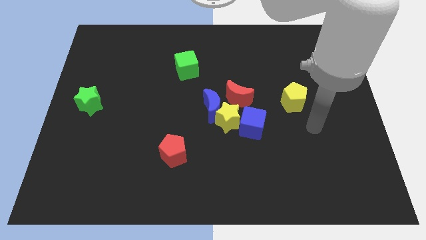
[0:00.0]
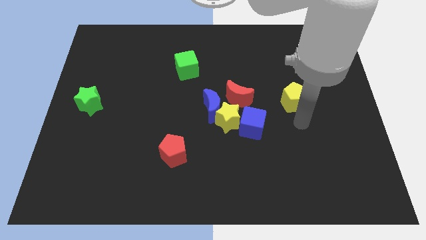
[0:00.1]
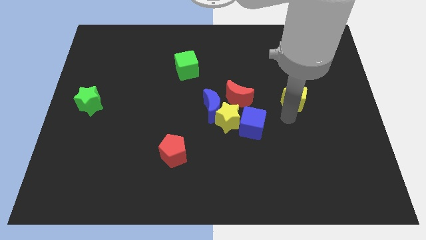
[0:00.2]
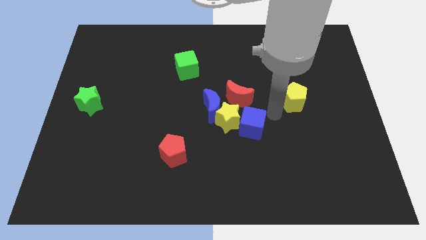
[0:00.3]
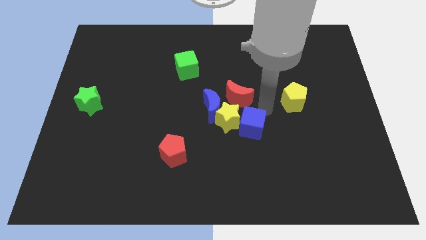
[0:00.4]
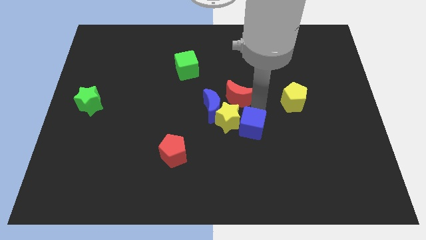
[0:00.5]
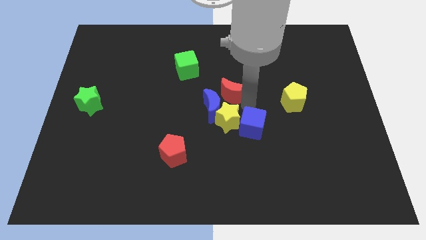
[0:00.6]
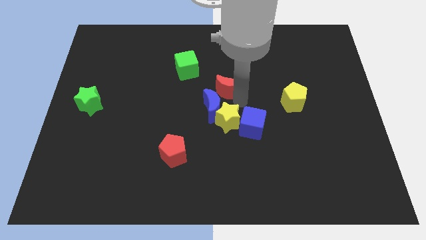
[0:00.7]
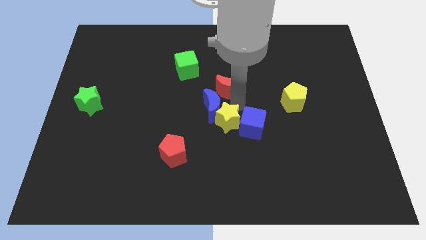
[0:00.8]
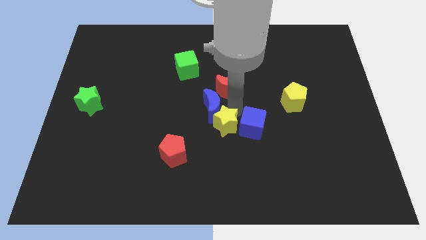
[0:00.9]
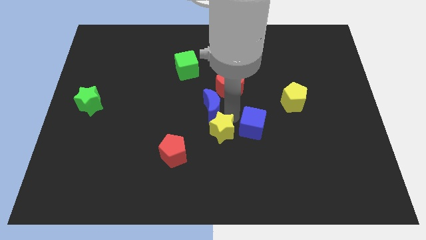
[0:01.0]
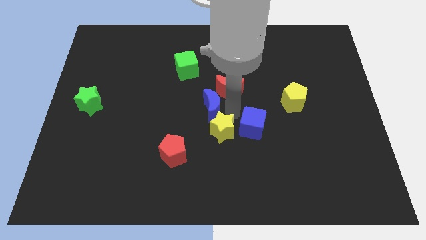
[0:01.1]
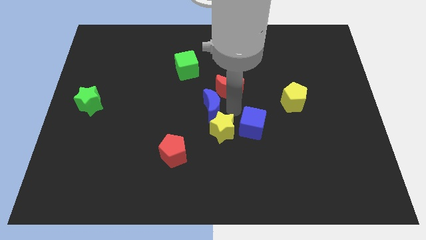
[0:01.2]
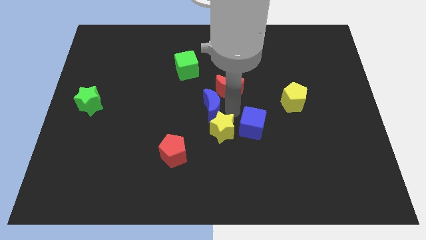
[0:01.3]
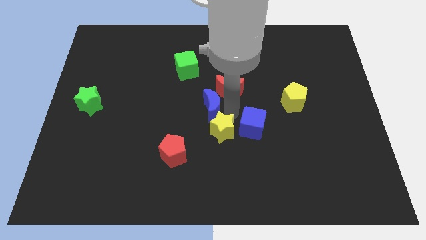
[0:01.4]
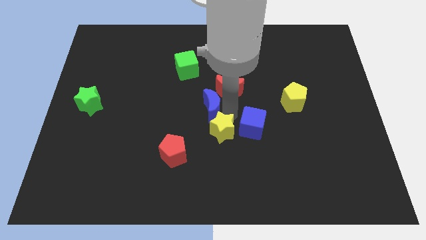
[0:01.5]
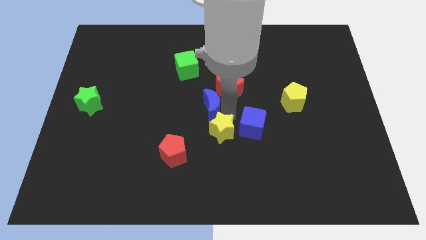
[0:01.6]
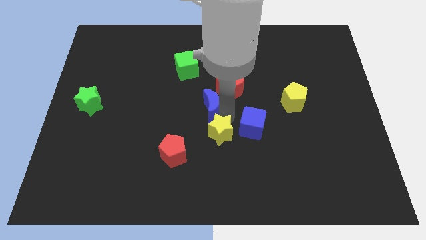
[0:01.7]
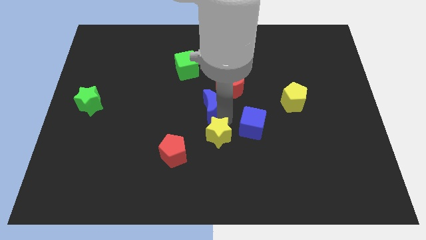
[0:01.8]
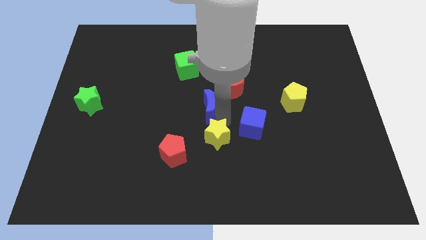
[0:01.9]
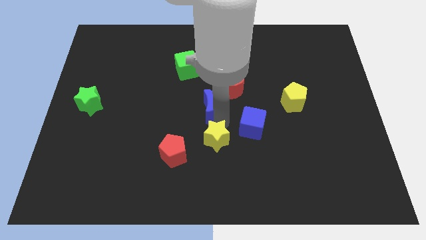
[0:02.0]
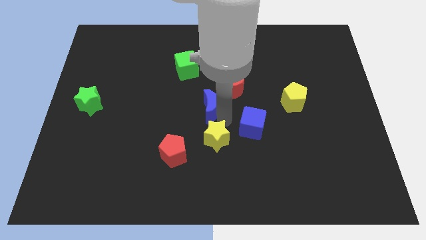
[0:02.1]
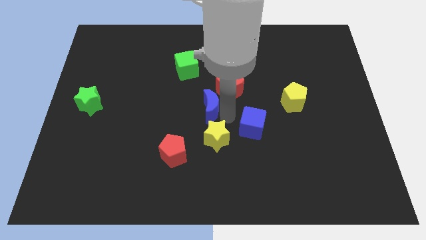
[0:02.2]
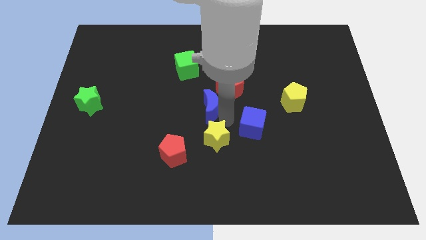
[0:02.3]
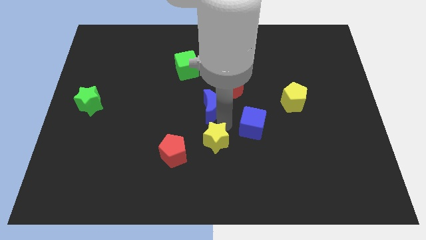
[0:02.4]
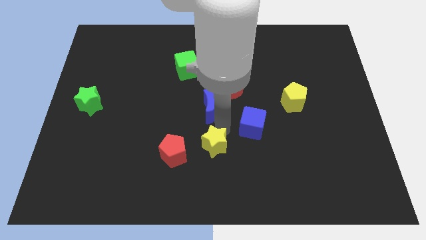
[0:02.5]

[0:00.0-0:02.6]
pull the yellow star apart from the clump

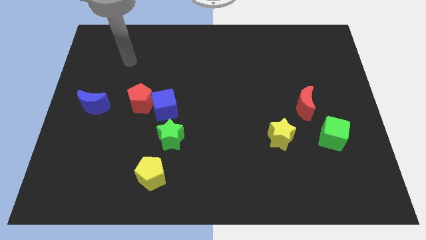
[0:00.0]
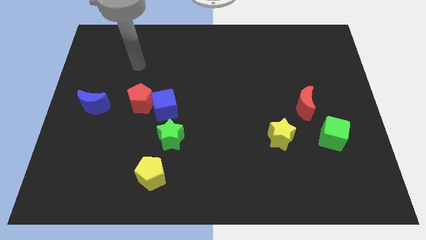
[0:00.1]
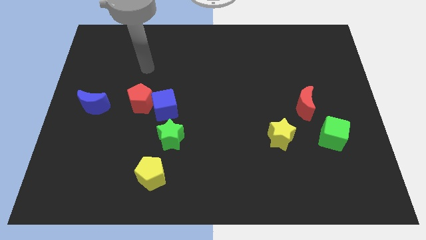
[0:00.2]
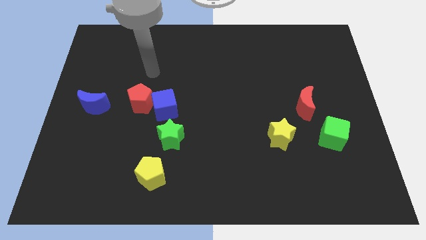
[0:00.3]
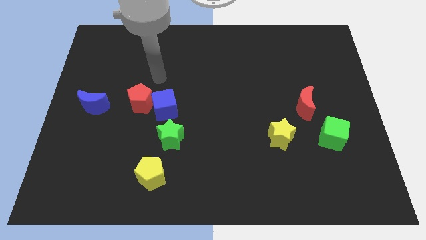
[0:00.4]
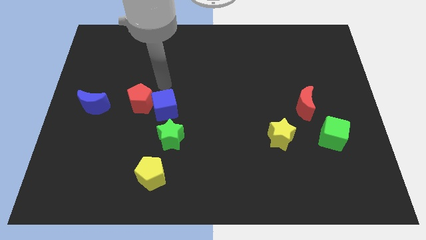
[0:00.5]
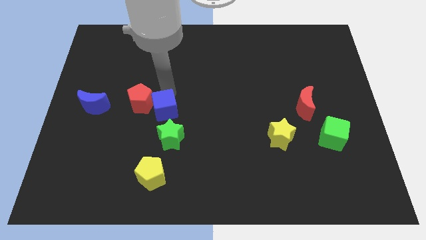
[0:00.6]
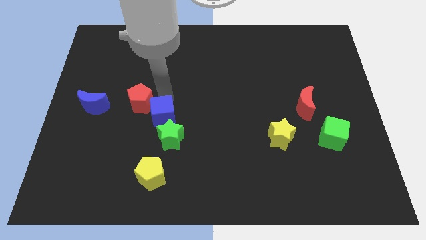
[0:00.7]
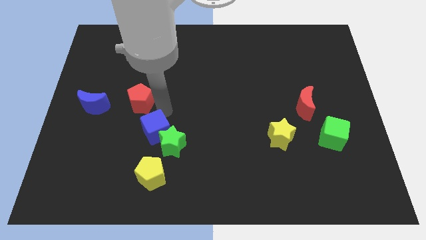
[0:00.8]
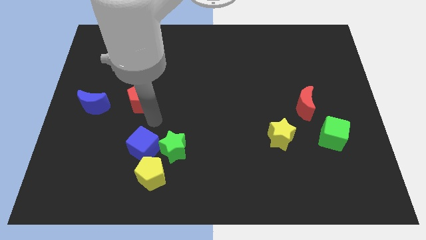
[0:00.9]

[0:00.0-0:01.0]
pull the red pentagon apart from the blue cube

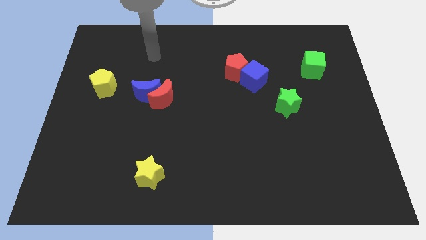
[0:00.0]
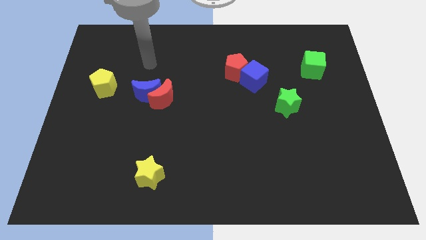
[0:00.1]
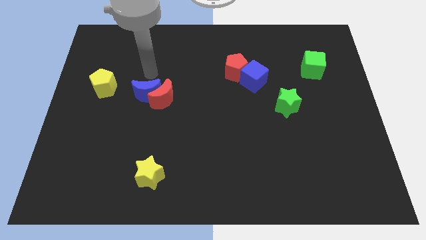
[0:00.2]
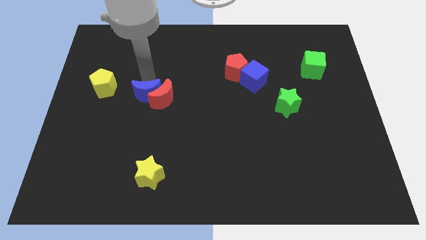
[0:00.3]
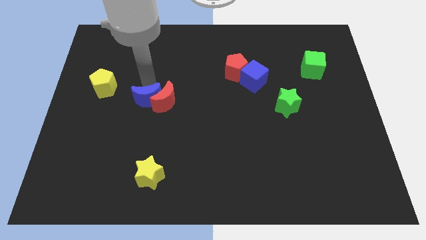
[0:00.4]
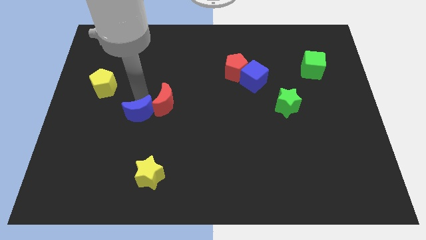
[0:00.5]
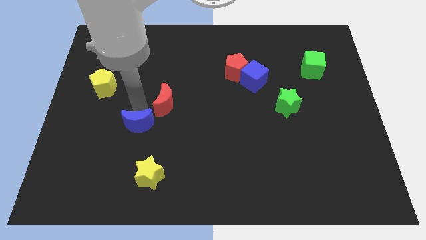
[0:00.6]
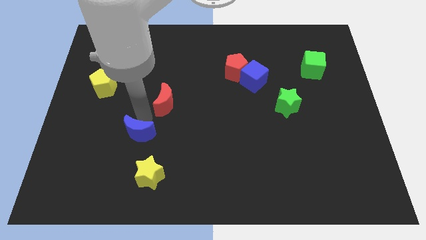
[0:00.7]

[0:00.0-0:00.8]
pull the red moon apart from the blue moon

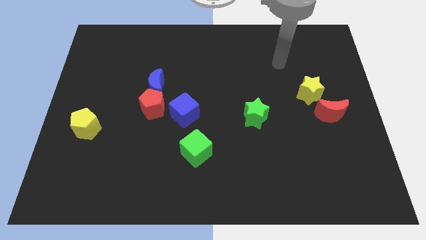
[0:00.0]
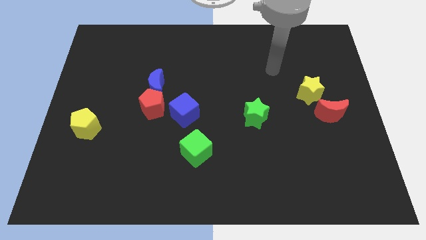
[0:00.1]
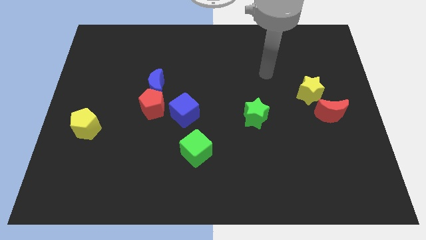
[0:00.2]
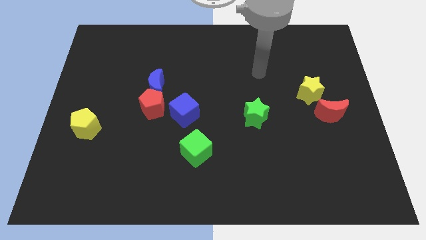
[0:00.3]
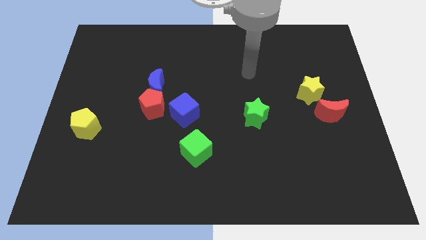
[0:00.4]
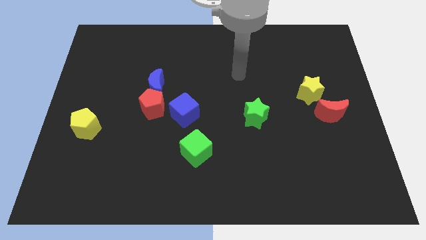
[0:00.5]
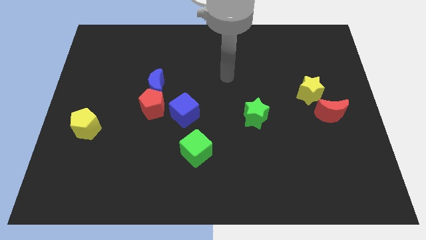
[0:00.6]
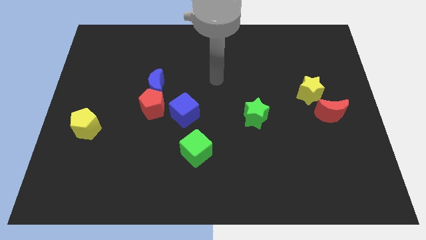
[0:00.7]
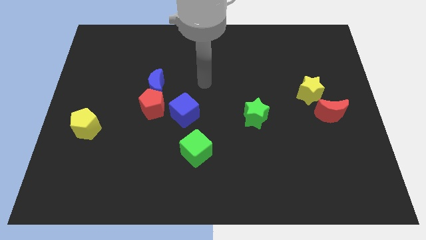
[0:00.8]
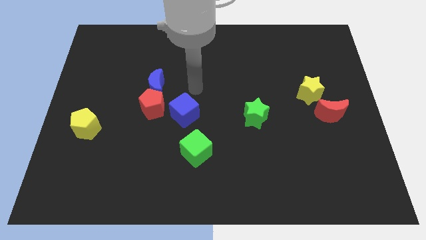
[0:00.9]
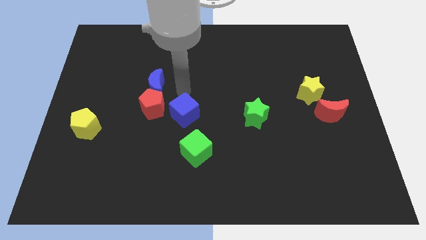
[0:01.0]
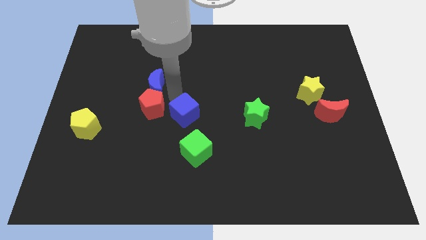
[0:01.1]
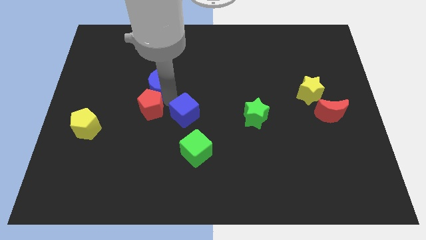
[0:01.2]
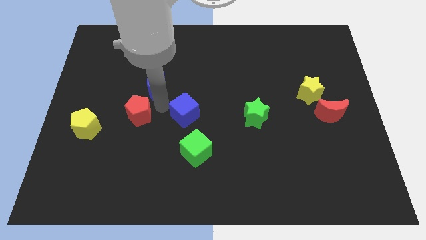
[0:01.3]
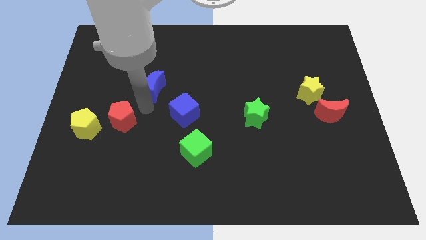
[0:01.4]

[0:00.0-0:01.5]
pull the blue moon apart from the red pentagon

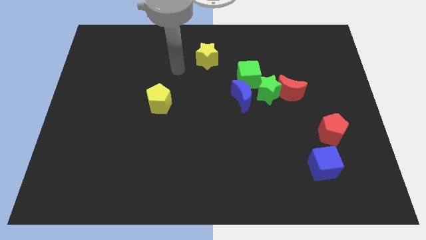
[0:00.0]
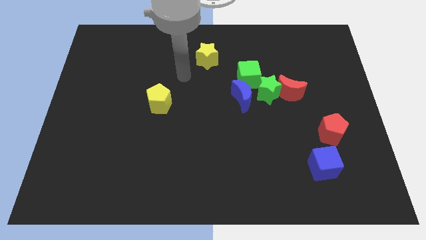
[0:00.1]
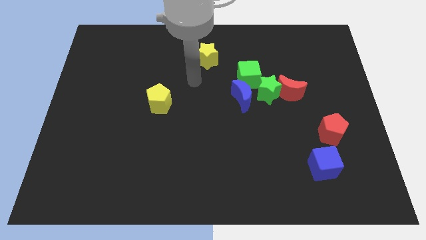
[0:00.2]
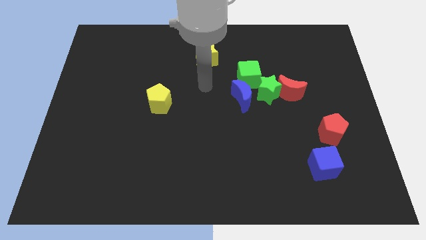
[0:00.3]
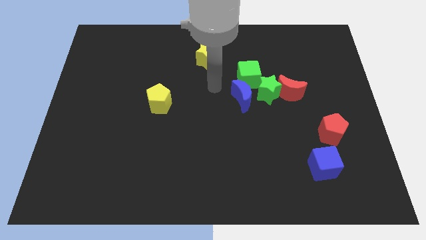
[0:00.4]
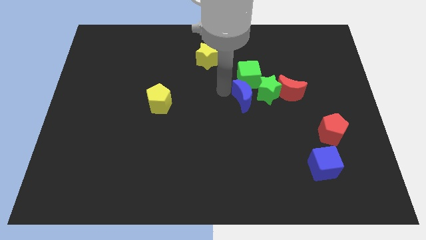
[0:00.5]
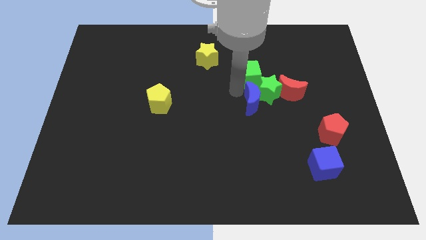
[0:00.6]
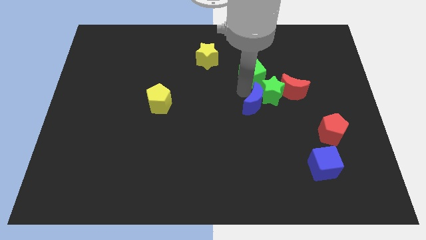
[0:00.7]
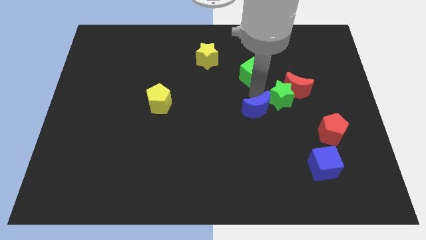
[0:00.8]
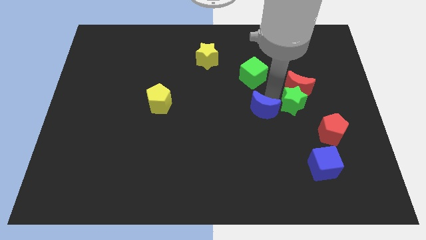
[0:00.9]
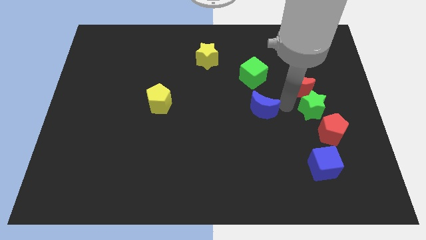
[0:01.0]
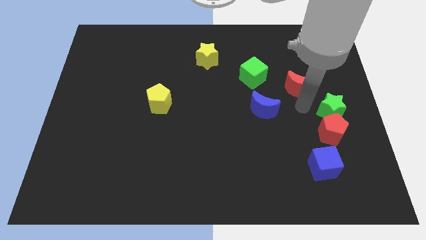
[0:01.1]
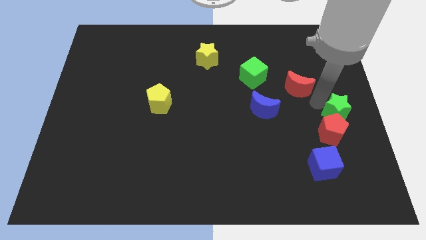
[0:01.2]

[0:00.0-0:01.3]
separate the red moon from the green star

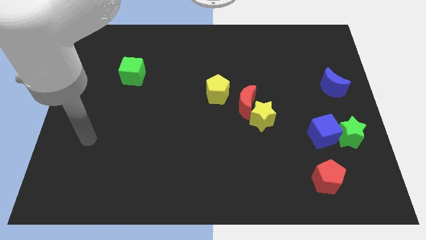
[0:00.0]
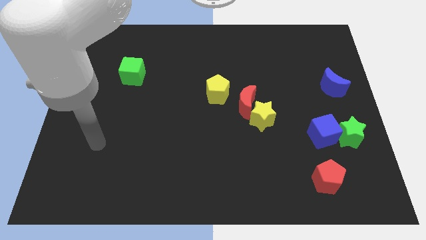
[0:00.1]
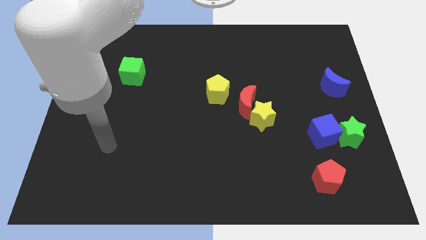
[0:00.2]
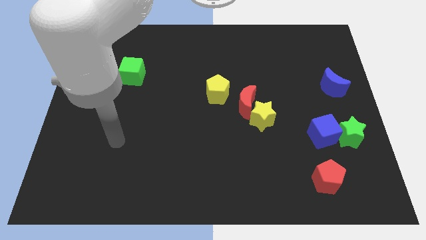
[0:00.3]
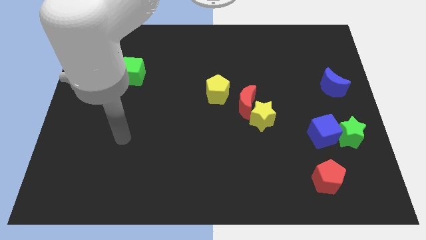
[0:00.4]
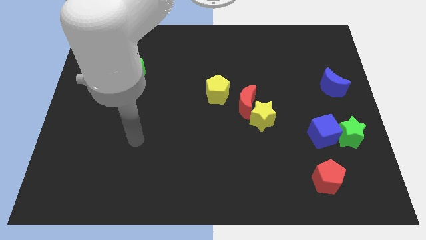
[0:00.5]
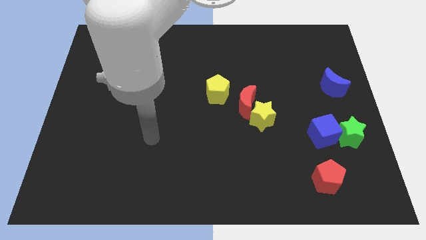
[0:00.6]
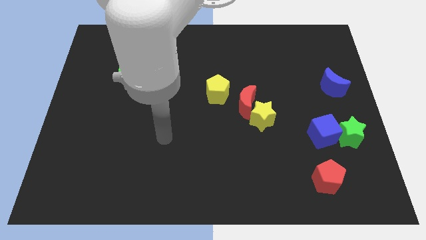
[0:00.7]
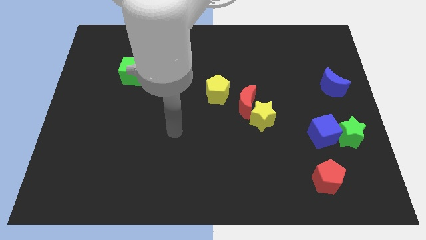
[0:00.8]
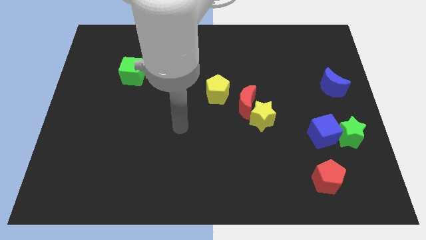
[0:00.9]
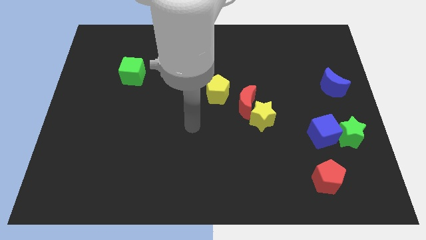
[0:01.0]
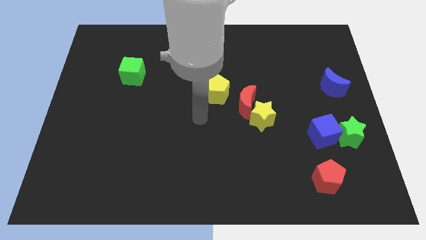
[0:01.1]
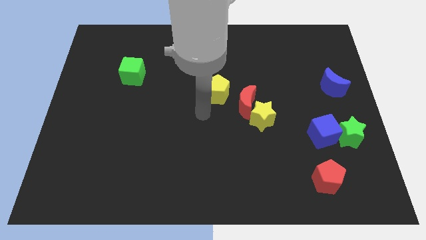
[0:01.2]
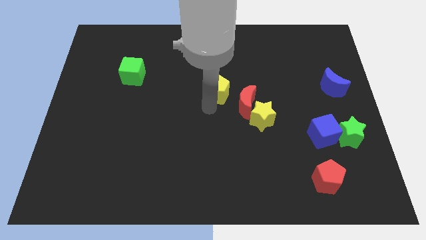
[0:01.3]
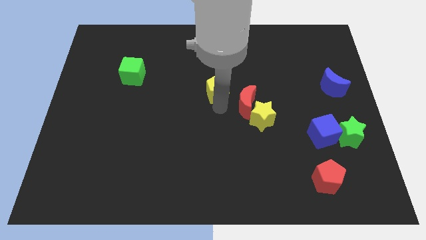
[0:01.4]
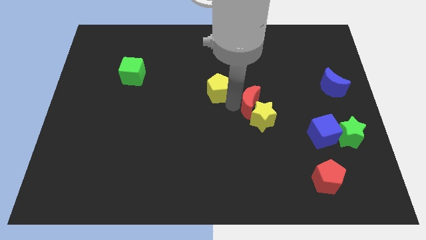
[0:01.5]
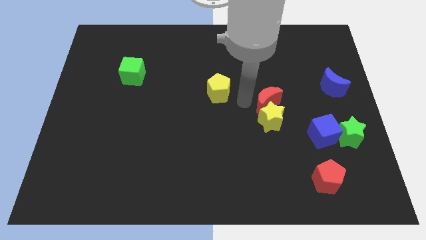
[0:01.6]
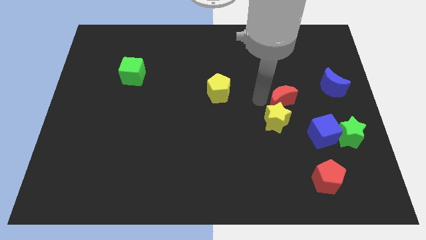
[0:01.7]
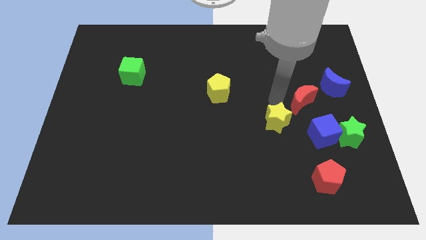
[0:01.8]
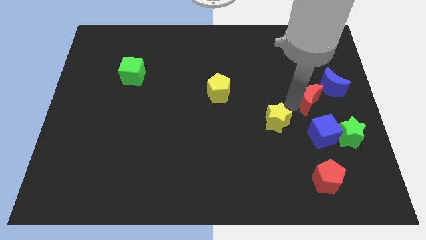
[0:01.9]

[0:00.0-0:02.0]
separate the yellow star from the red moon
